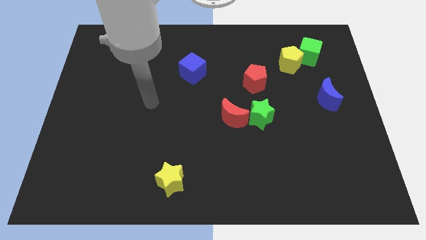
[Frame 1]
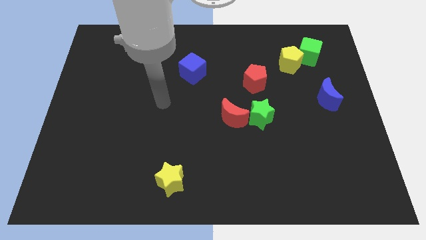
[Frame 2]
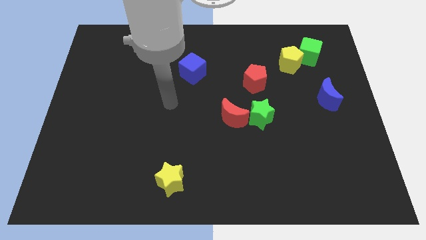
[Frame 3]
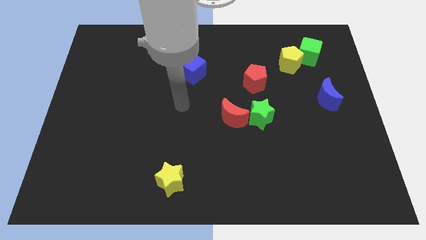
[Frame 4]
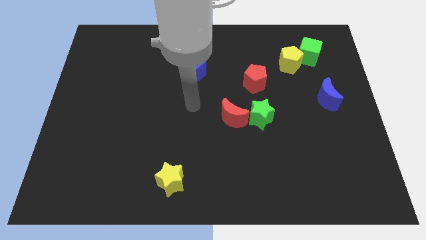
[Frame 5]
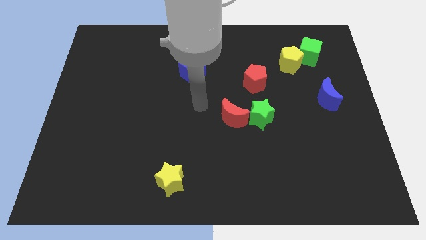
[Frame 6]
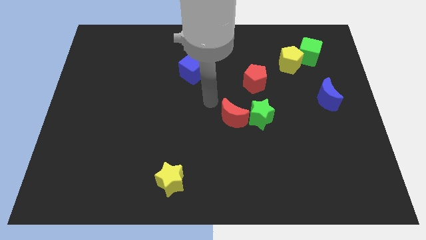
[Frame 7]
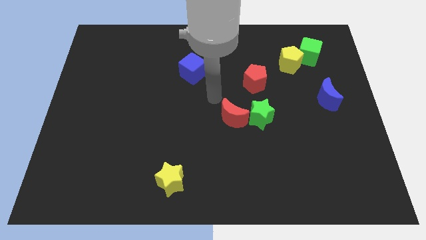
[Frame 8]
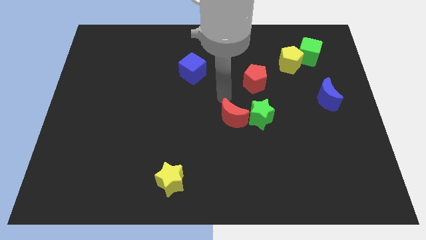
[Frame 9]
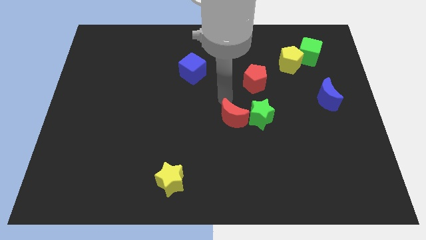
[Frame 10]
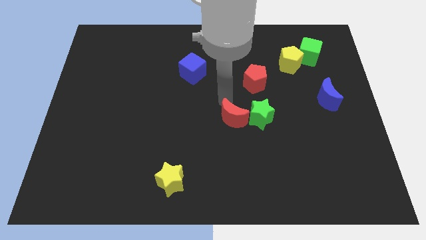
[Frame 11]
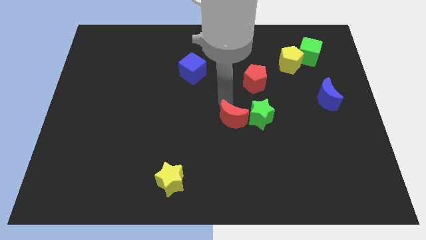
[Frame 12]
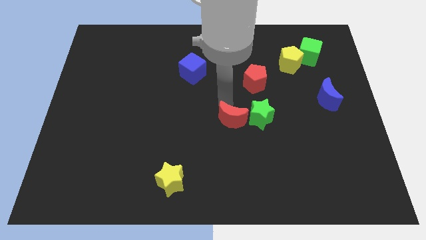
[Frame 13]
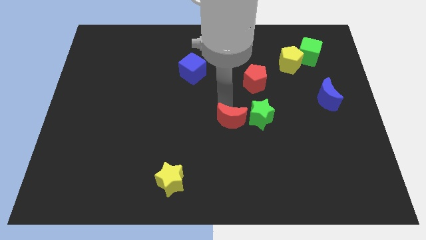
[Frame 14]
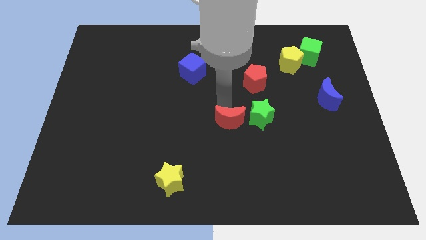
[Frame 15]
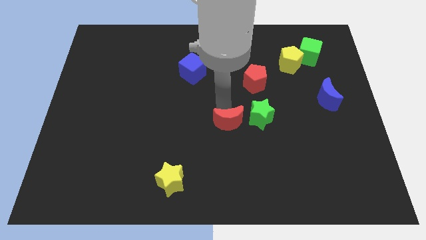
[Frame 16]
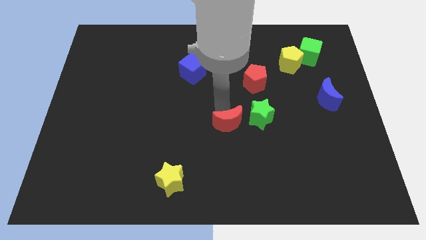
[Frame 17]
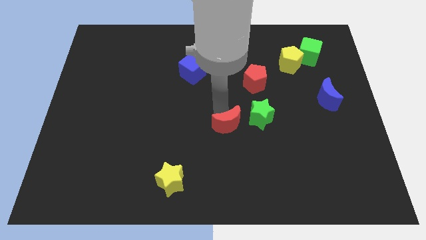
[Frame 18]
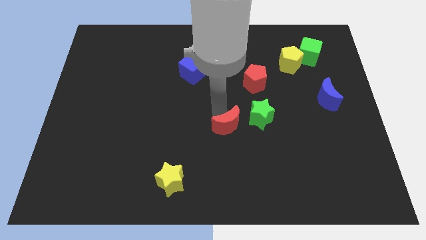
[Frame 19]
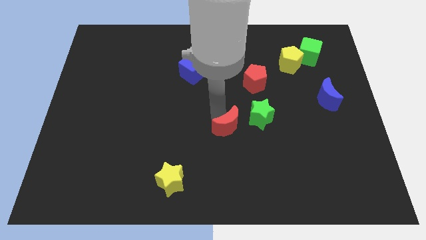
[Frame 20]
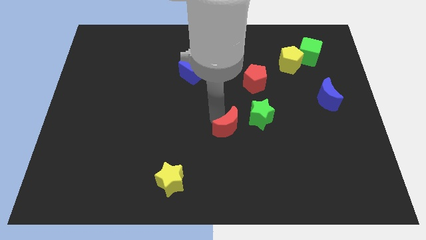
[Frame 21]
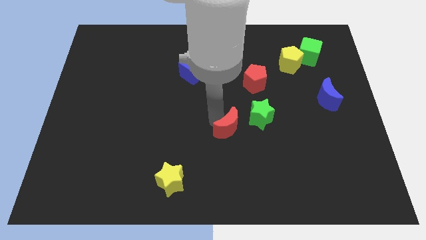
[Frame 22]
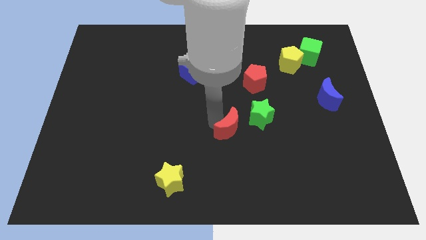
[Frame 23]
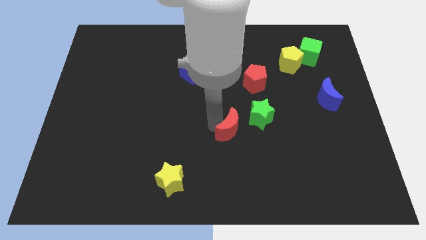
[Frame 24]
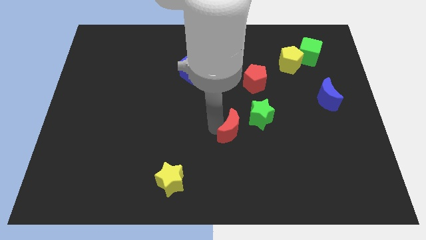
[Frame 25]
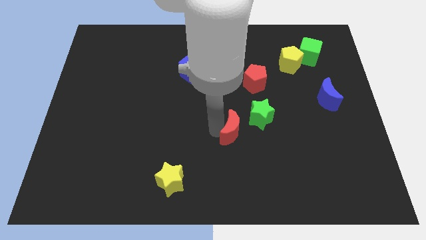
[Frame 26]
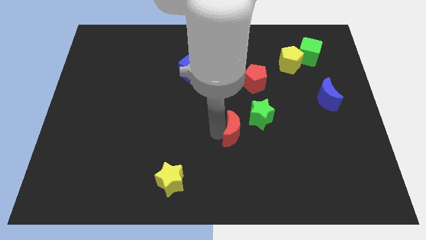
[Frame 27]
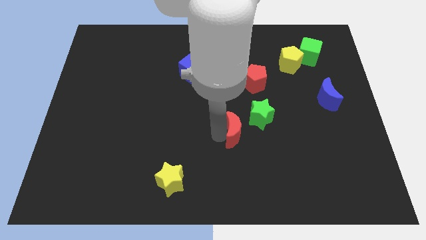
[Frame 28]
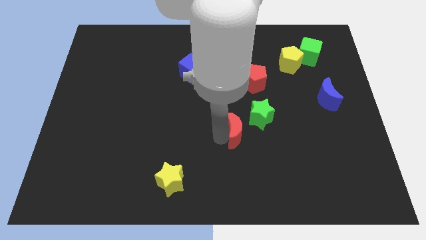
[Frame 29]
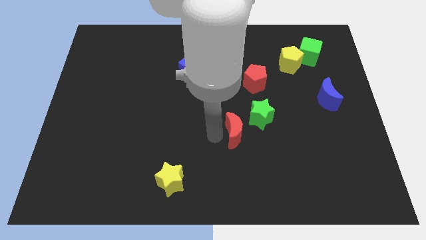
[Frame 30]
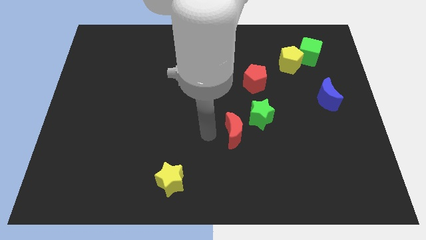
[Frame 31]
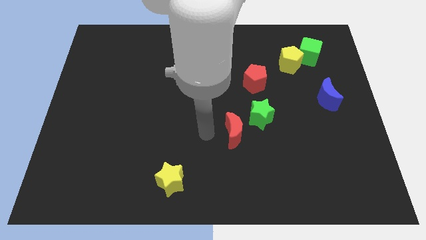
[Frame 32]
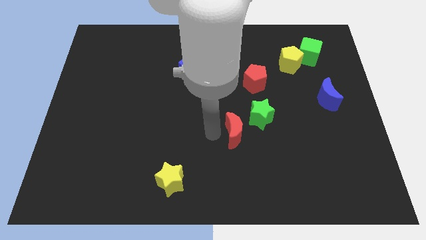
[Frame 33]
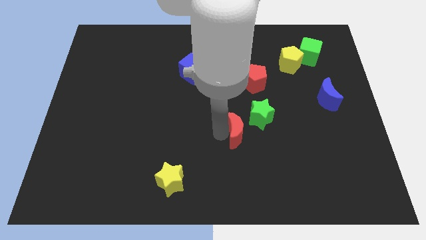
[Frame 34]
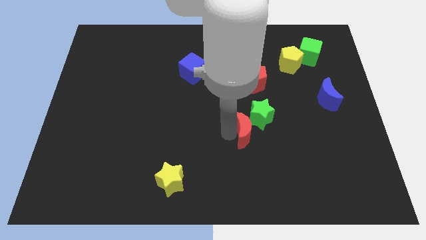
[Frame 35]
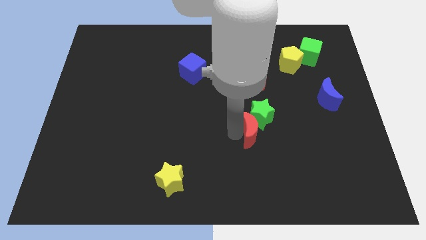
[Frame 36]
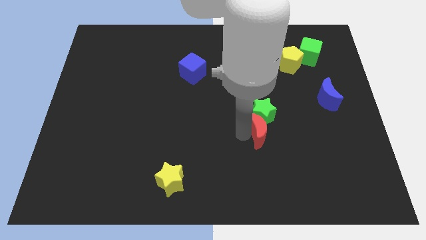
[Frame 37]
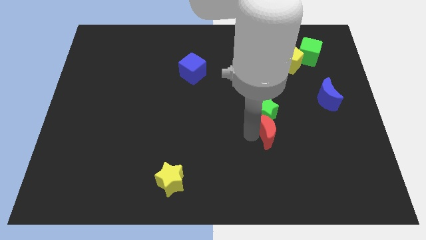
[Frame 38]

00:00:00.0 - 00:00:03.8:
slightly push the red moon to the right

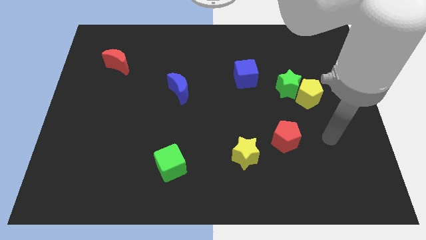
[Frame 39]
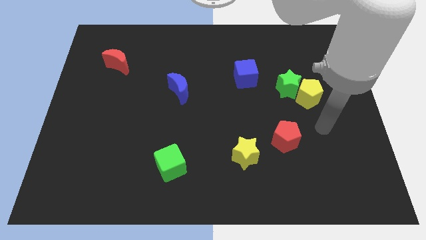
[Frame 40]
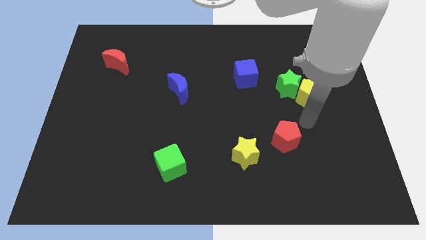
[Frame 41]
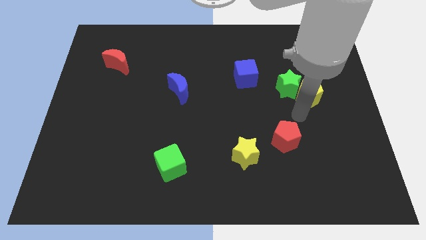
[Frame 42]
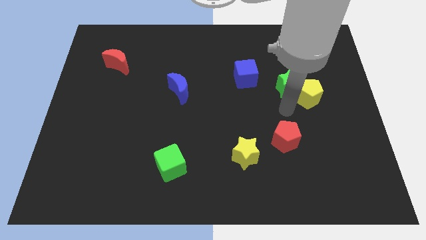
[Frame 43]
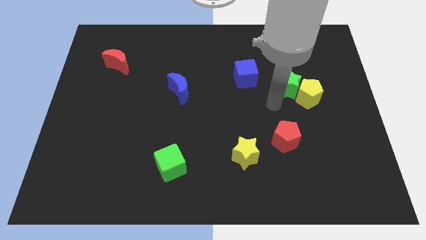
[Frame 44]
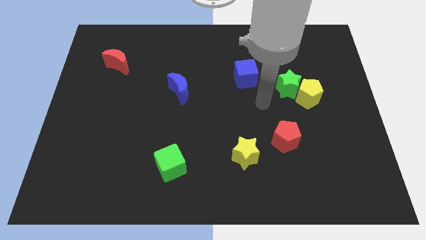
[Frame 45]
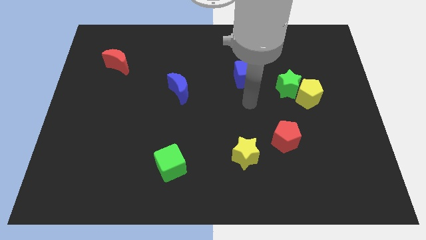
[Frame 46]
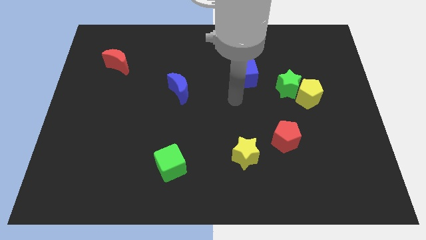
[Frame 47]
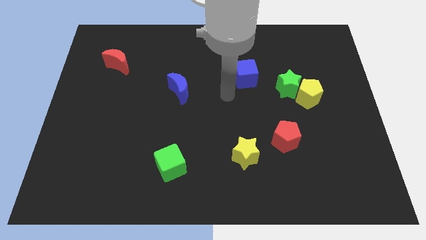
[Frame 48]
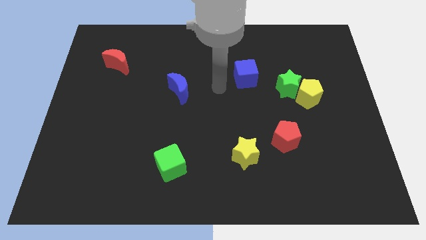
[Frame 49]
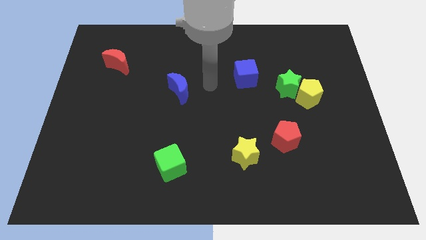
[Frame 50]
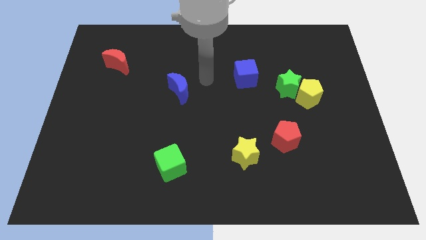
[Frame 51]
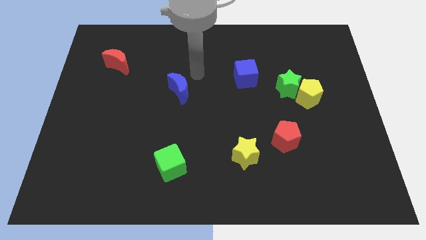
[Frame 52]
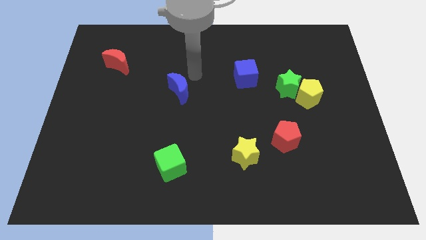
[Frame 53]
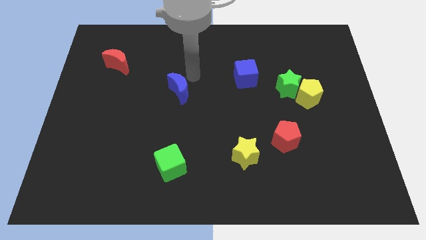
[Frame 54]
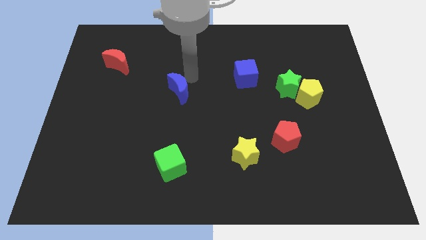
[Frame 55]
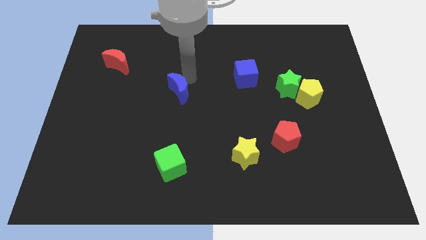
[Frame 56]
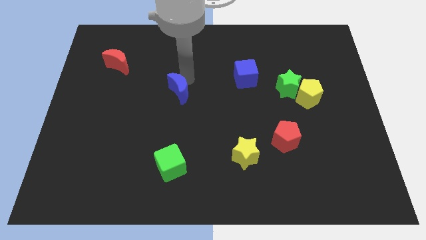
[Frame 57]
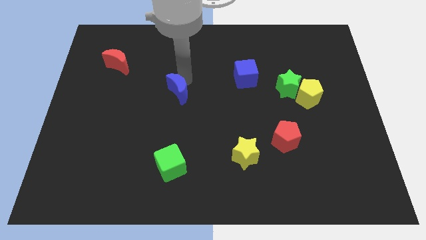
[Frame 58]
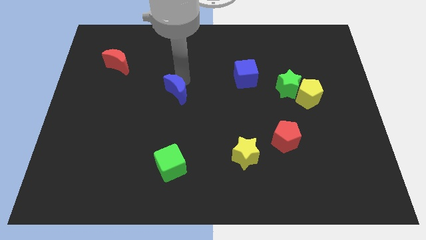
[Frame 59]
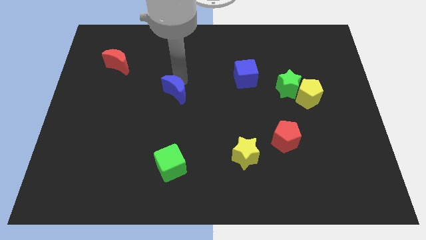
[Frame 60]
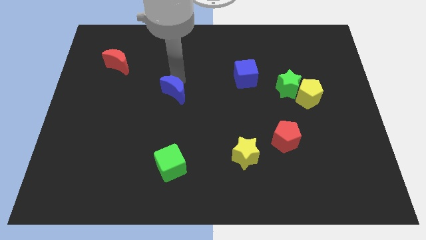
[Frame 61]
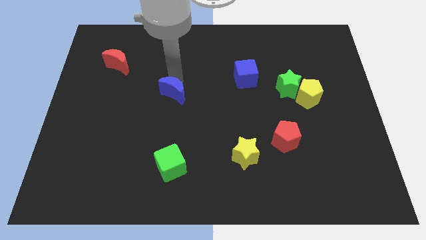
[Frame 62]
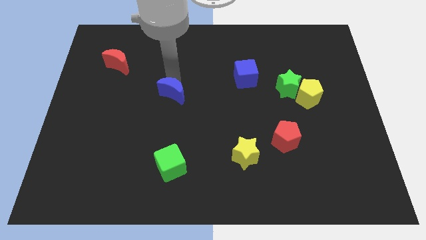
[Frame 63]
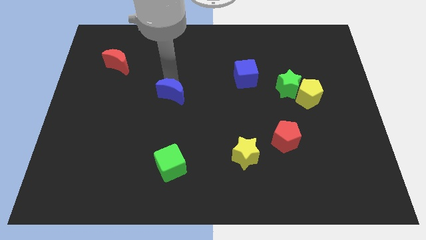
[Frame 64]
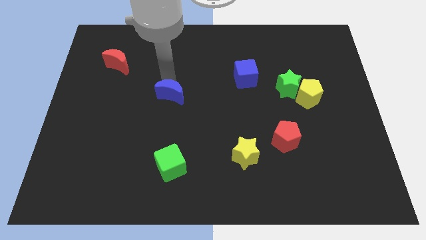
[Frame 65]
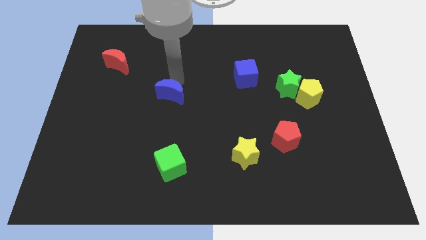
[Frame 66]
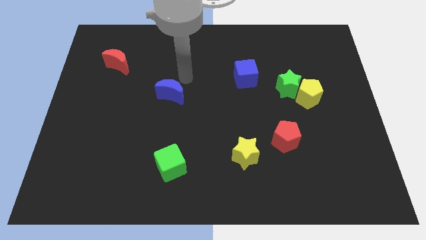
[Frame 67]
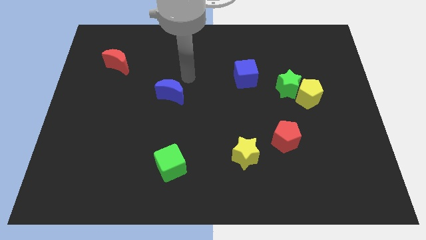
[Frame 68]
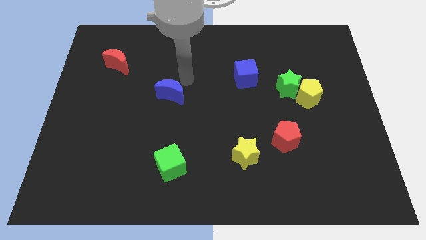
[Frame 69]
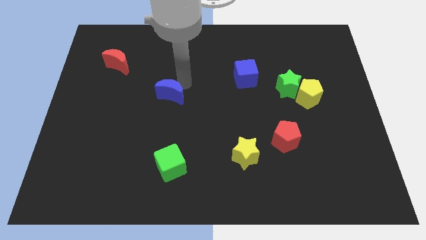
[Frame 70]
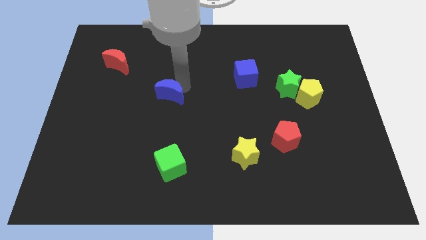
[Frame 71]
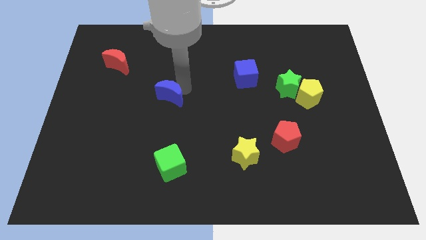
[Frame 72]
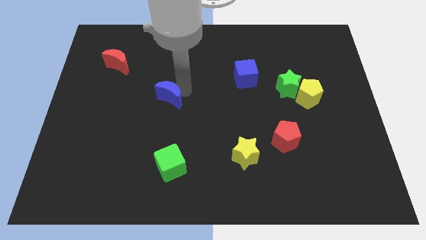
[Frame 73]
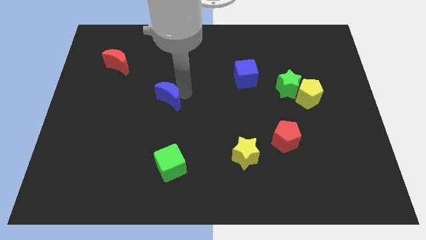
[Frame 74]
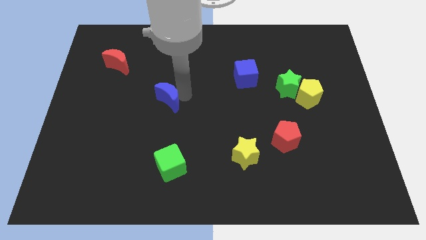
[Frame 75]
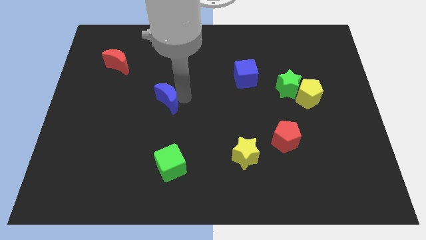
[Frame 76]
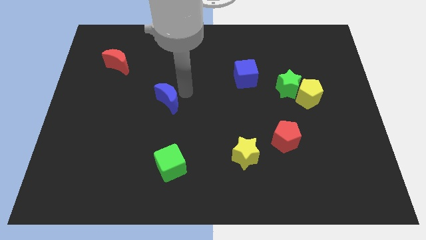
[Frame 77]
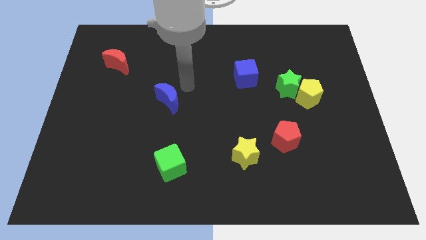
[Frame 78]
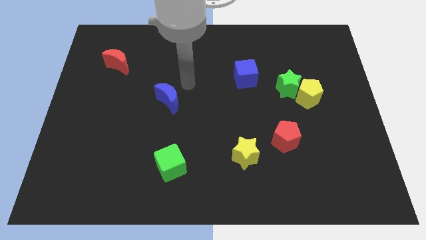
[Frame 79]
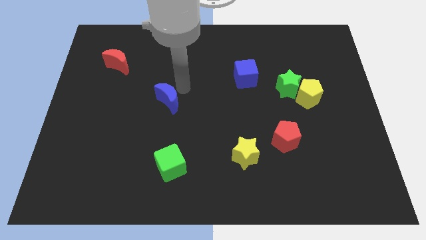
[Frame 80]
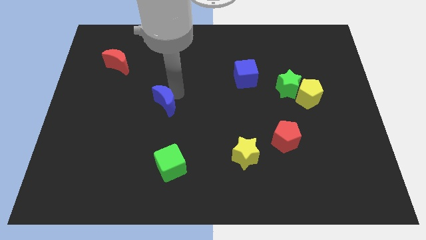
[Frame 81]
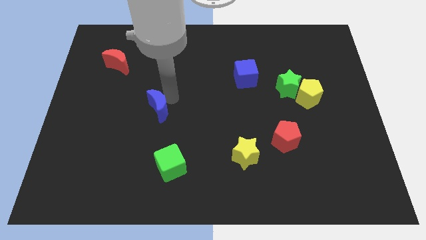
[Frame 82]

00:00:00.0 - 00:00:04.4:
slightly slide the blue moon down and then to the left
